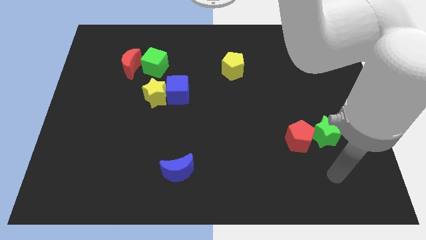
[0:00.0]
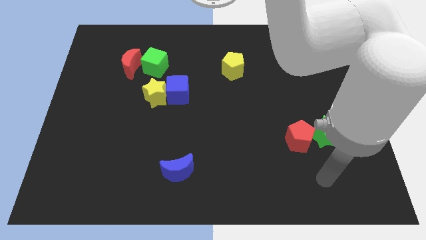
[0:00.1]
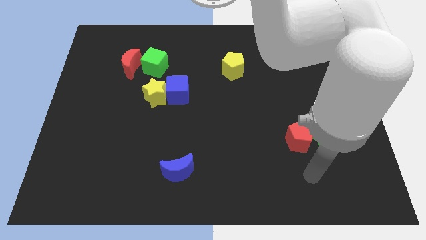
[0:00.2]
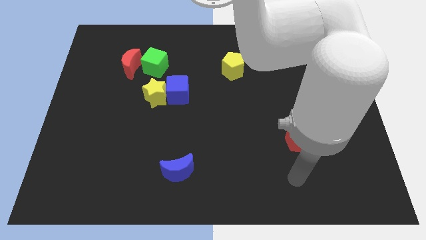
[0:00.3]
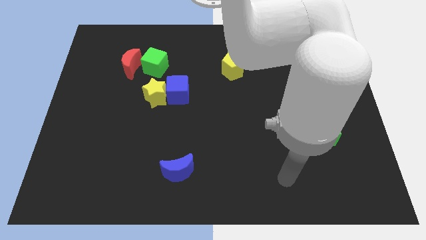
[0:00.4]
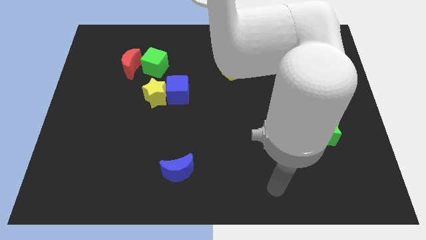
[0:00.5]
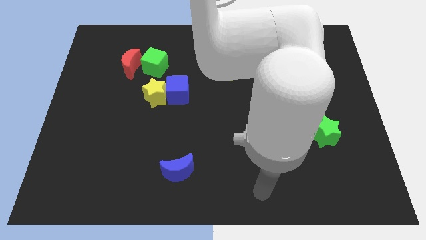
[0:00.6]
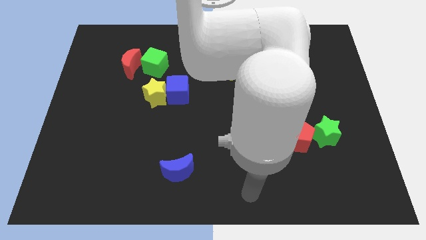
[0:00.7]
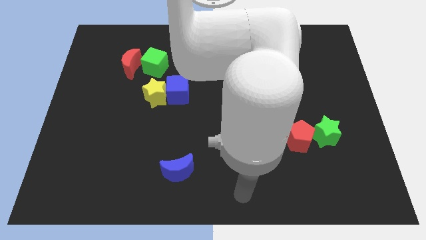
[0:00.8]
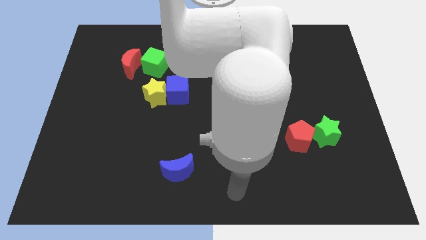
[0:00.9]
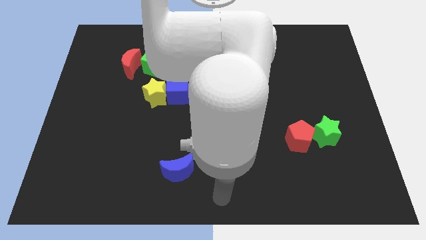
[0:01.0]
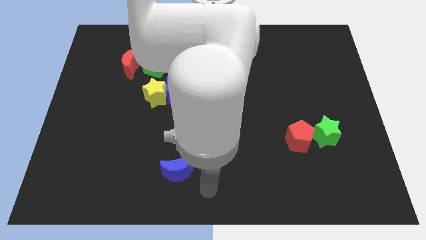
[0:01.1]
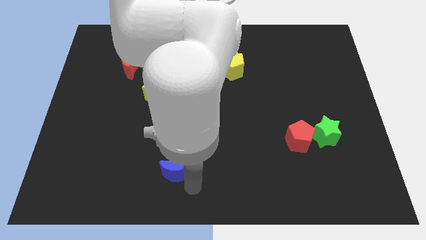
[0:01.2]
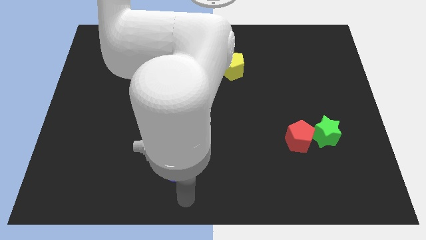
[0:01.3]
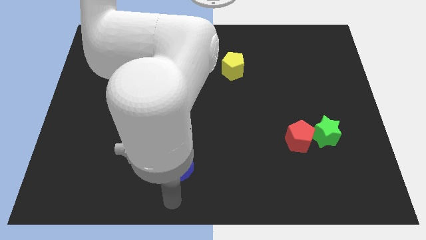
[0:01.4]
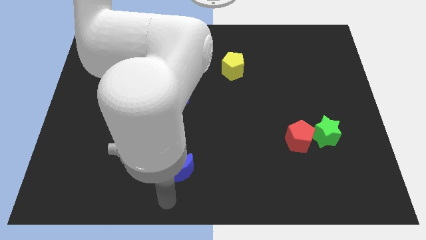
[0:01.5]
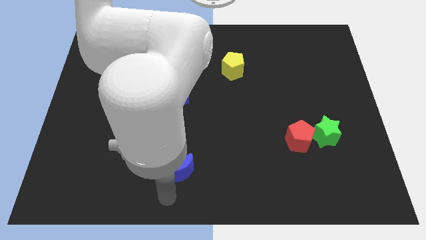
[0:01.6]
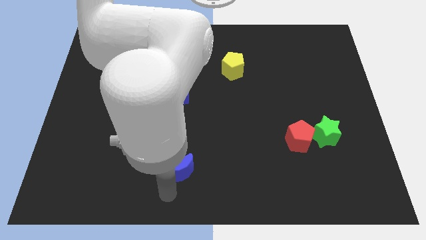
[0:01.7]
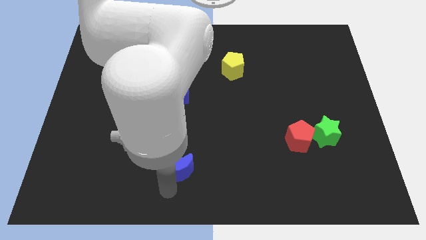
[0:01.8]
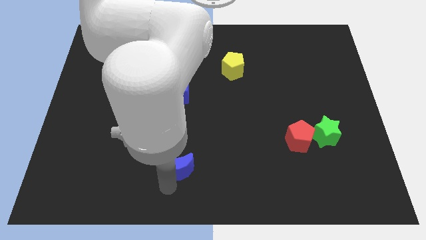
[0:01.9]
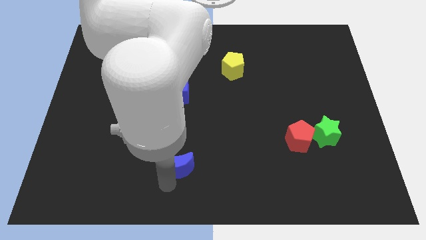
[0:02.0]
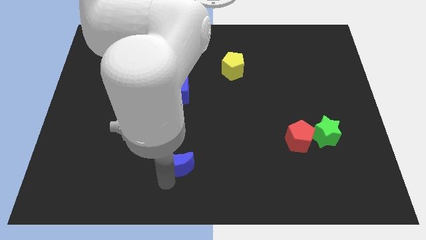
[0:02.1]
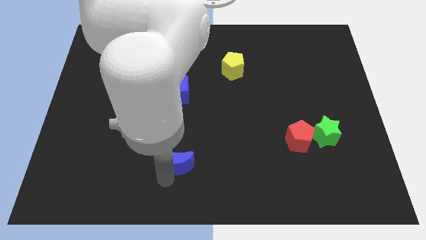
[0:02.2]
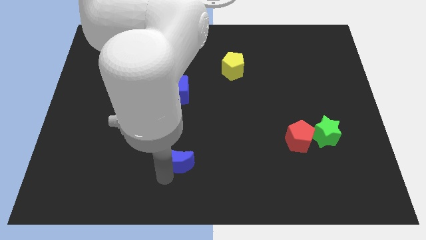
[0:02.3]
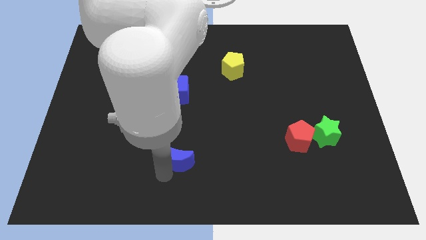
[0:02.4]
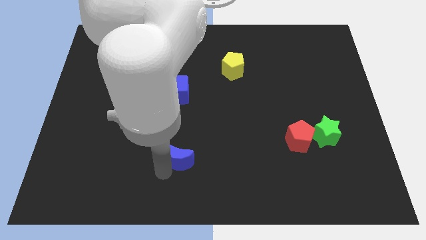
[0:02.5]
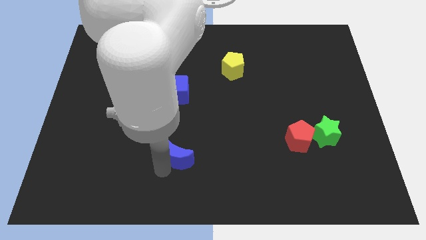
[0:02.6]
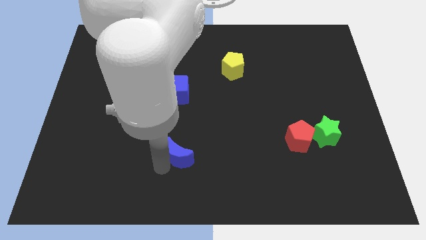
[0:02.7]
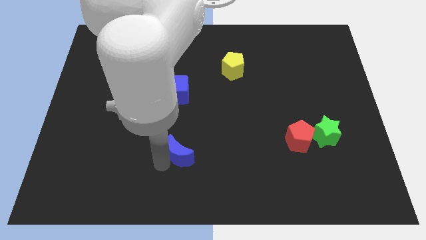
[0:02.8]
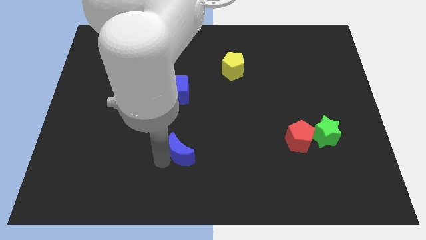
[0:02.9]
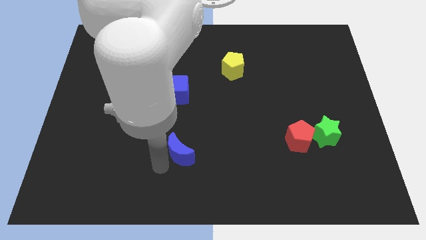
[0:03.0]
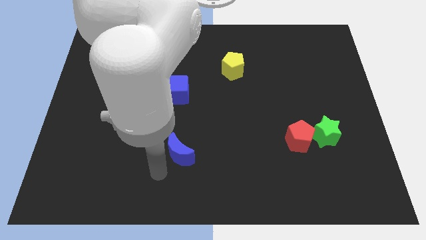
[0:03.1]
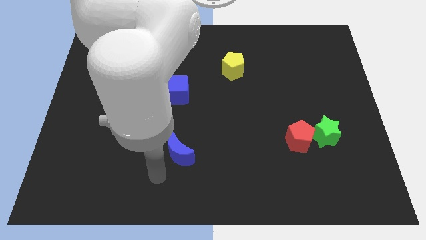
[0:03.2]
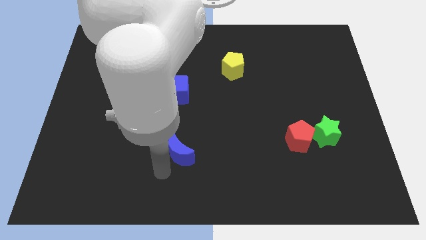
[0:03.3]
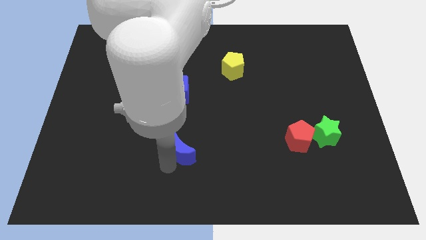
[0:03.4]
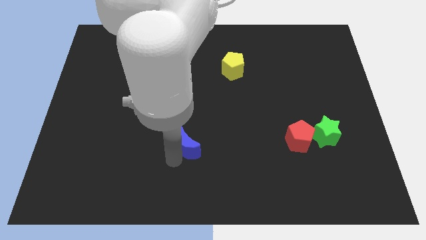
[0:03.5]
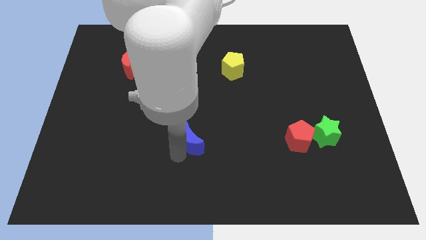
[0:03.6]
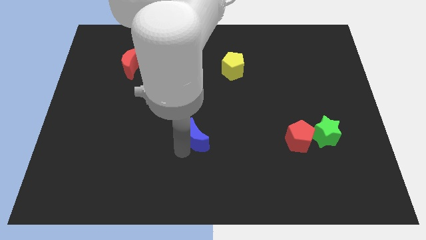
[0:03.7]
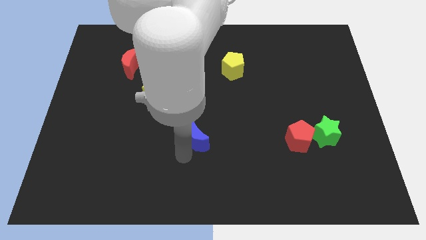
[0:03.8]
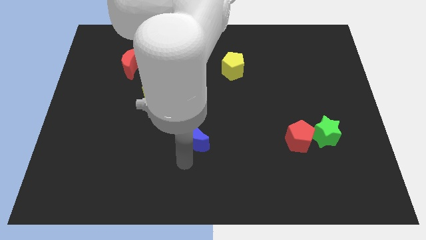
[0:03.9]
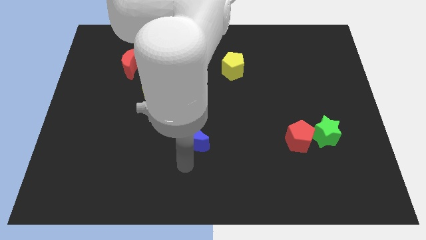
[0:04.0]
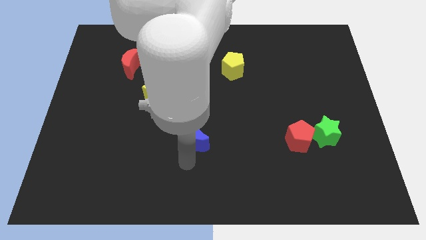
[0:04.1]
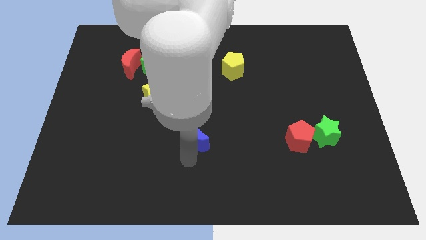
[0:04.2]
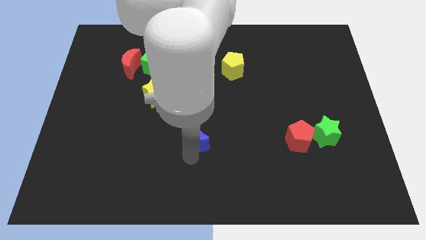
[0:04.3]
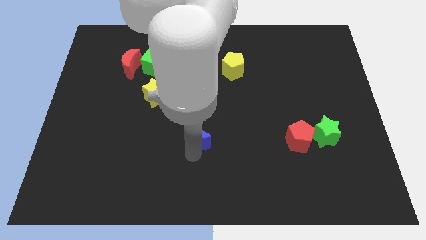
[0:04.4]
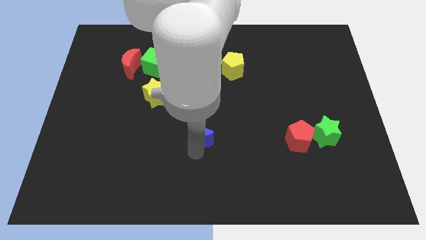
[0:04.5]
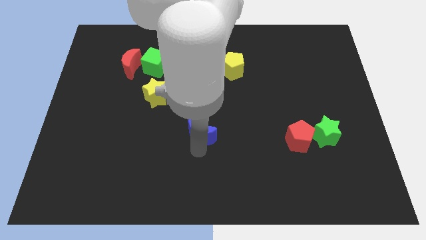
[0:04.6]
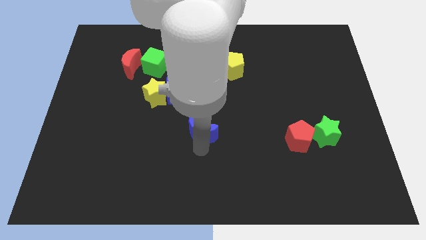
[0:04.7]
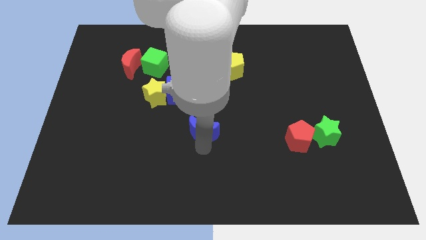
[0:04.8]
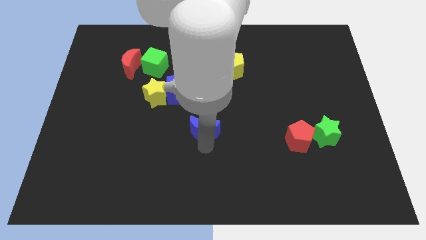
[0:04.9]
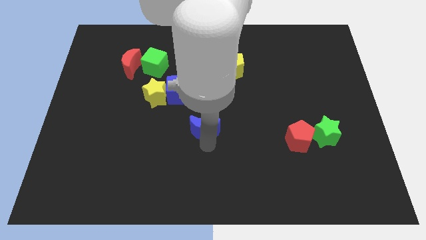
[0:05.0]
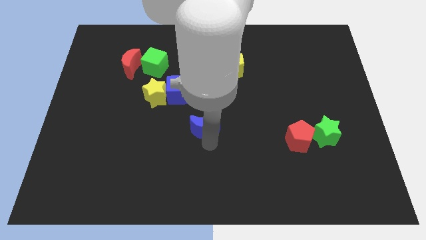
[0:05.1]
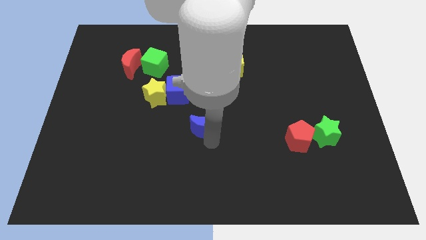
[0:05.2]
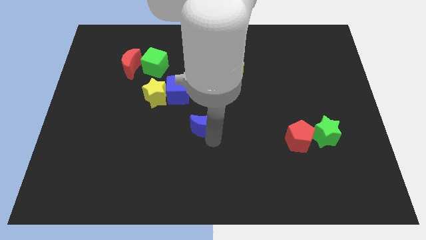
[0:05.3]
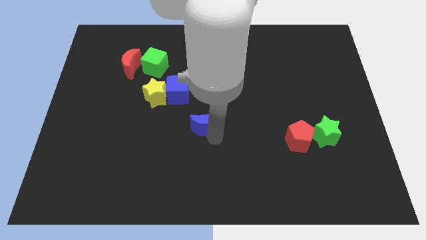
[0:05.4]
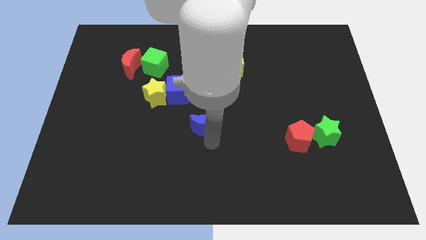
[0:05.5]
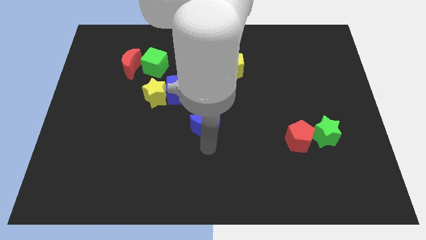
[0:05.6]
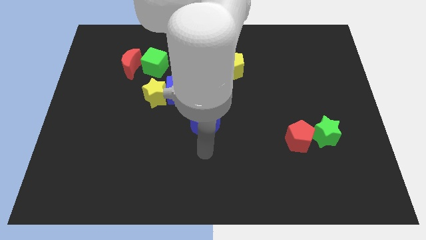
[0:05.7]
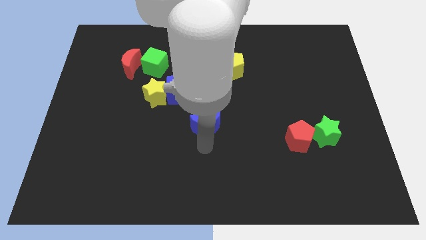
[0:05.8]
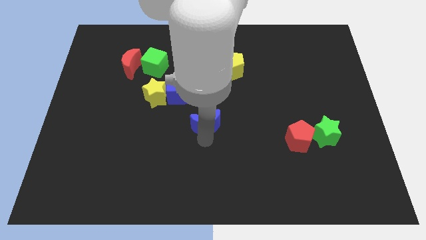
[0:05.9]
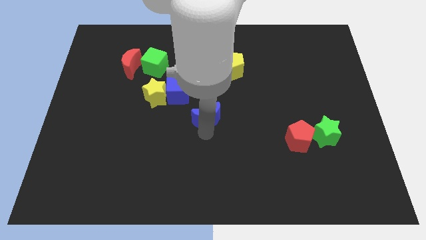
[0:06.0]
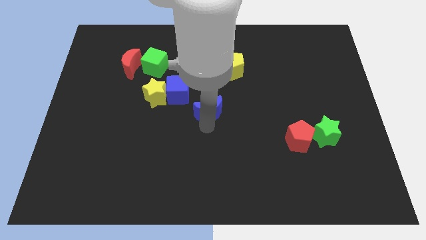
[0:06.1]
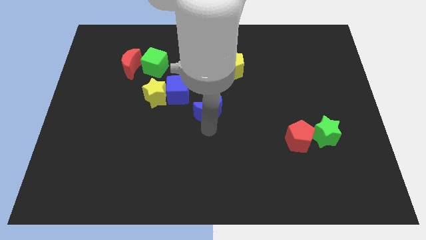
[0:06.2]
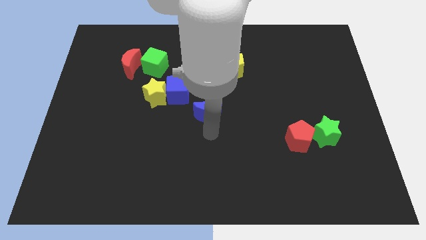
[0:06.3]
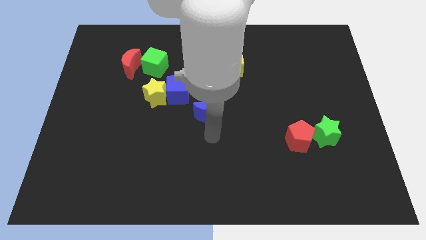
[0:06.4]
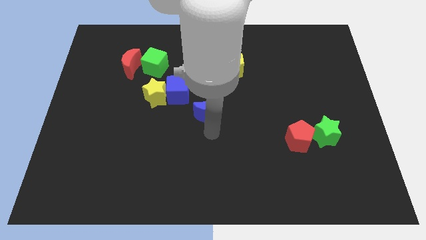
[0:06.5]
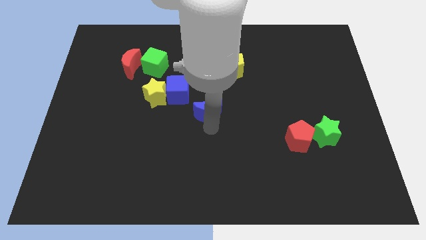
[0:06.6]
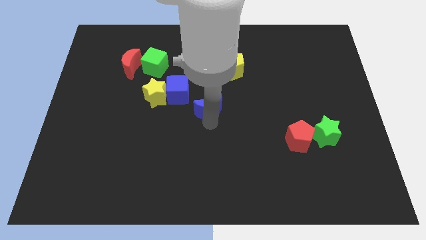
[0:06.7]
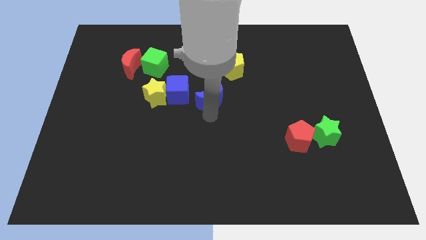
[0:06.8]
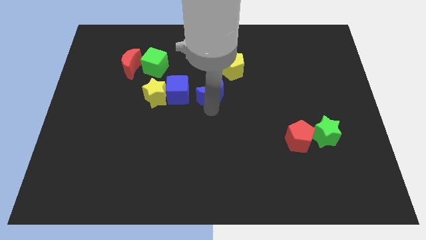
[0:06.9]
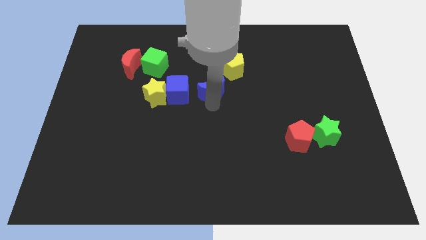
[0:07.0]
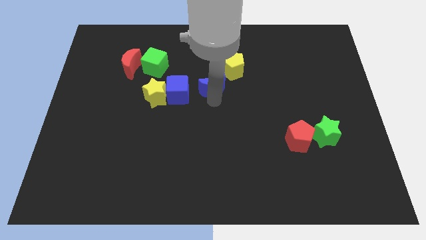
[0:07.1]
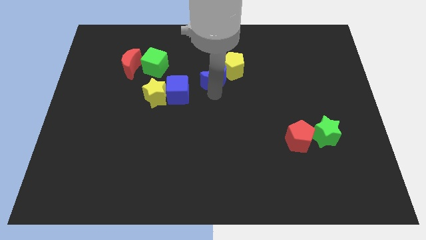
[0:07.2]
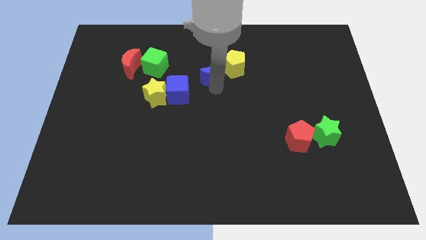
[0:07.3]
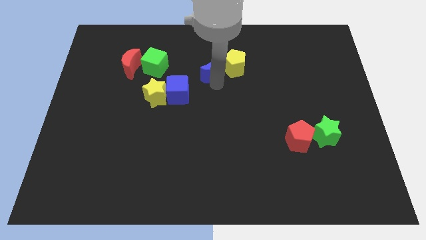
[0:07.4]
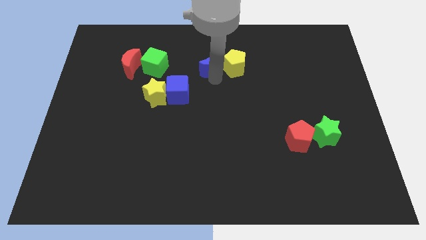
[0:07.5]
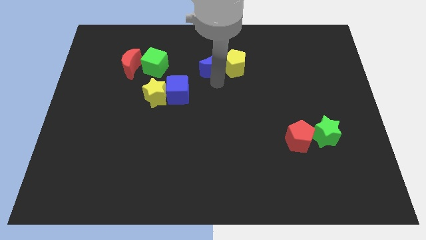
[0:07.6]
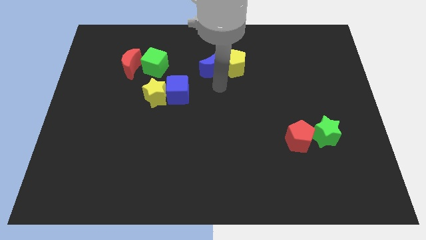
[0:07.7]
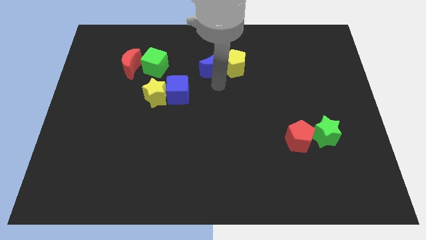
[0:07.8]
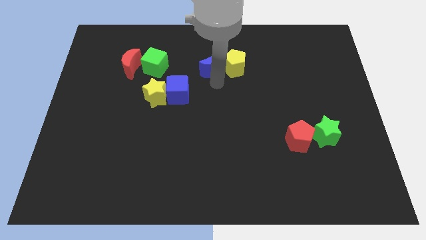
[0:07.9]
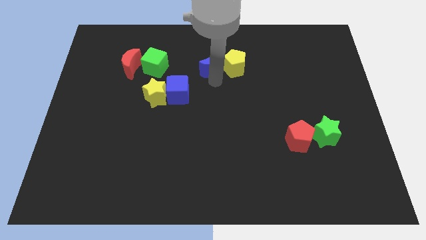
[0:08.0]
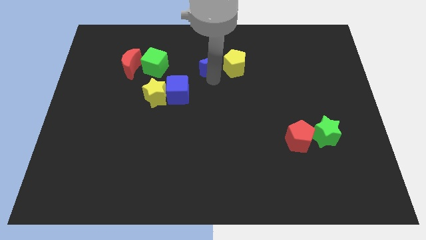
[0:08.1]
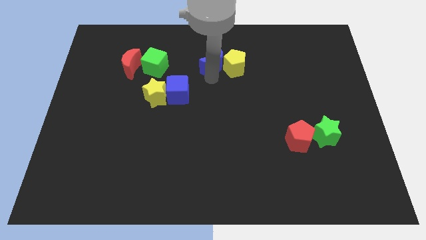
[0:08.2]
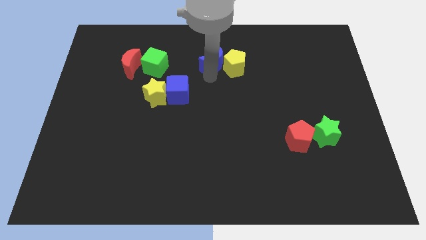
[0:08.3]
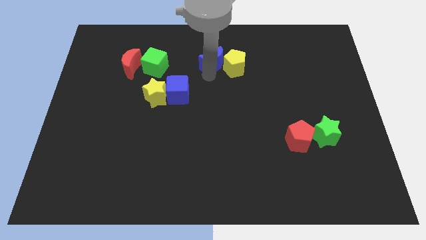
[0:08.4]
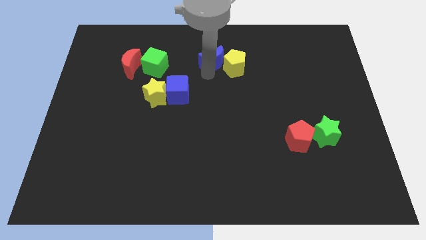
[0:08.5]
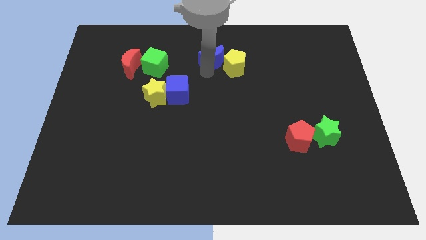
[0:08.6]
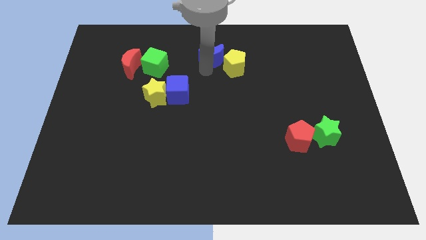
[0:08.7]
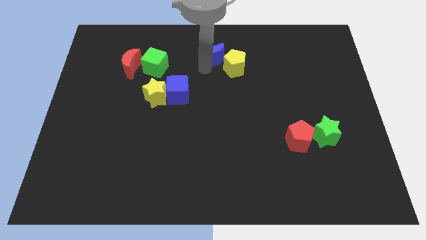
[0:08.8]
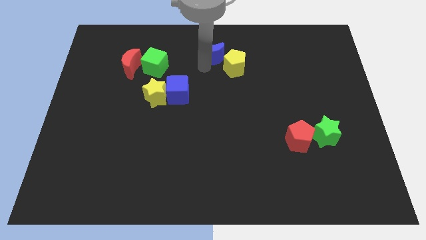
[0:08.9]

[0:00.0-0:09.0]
put the blue moon to the top
